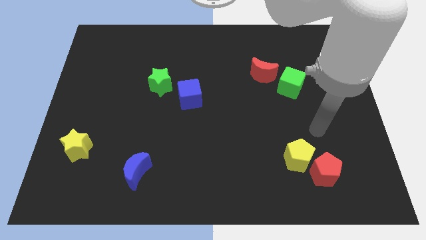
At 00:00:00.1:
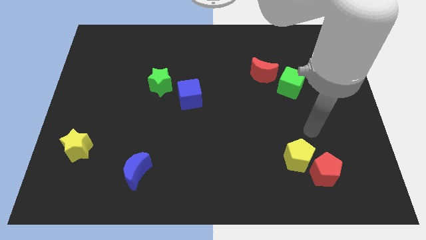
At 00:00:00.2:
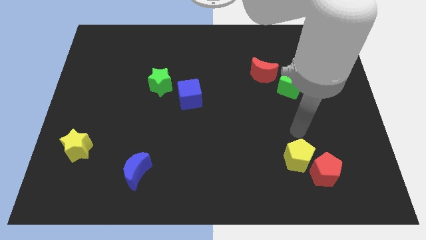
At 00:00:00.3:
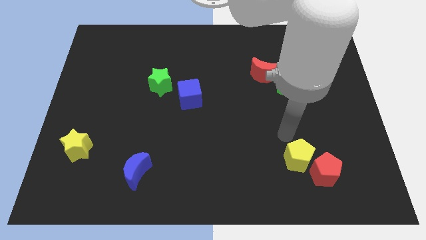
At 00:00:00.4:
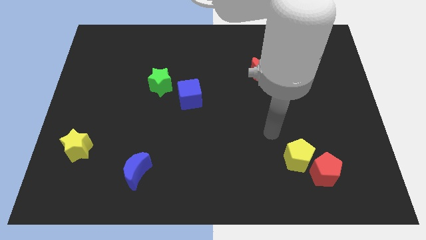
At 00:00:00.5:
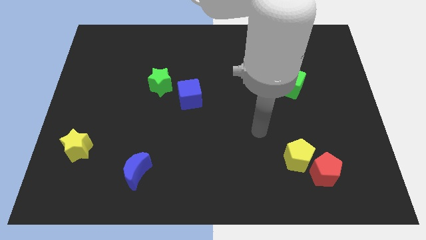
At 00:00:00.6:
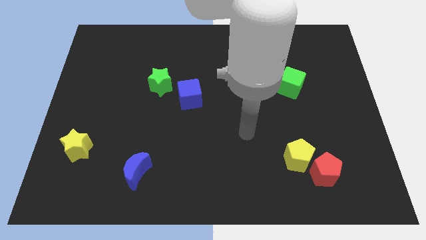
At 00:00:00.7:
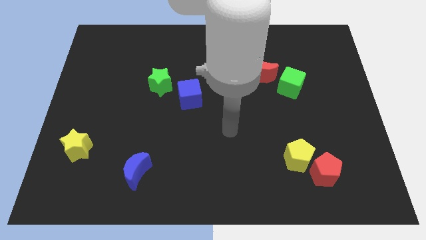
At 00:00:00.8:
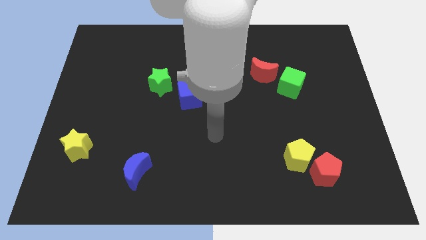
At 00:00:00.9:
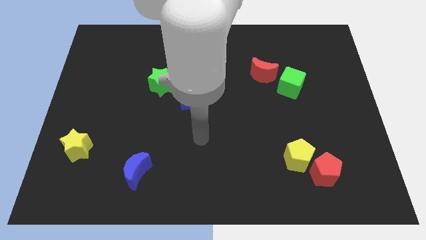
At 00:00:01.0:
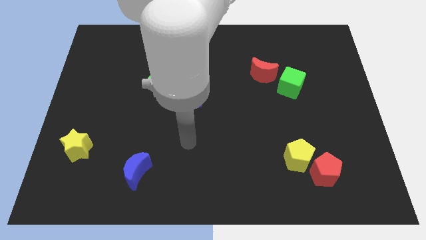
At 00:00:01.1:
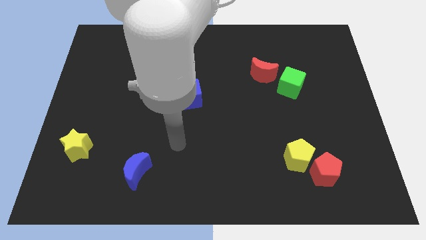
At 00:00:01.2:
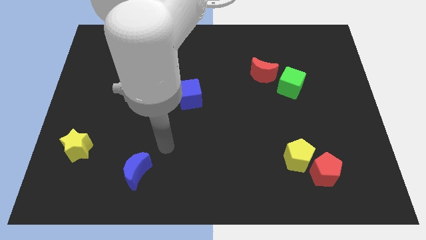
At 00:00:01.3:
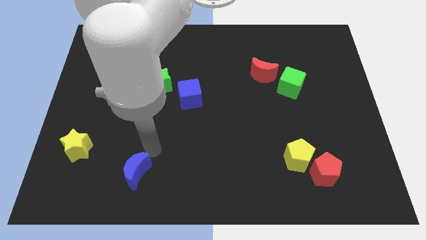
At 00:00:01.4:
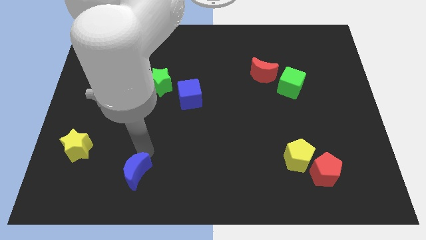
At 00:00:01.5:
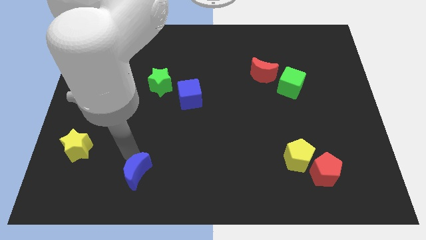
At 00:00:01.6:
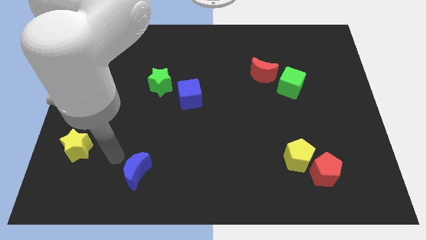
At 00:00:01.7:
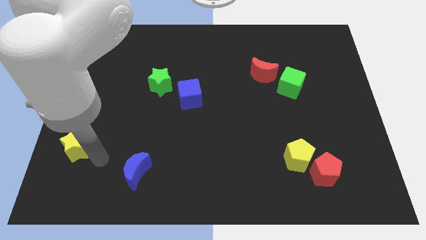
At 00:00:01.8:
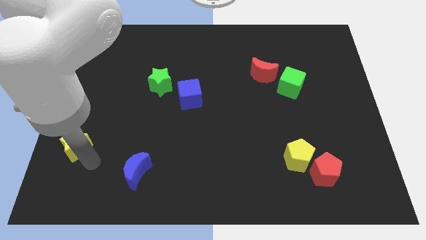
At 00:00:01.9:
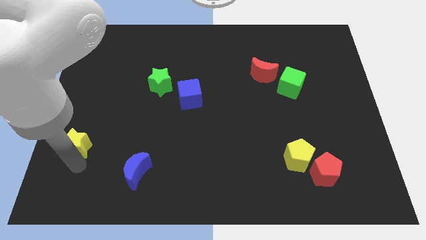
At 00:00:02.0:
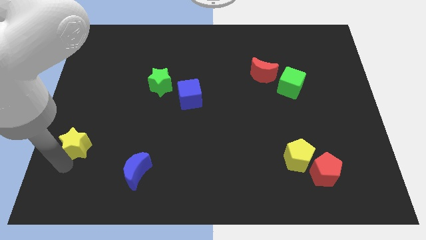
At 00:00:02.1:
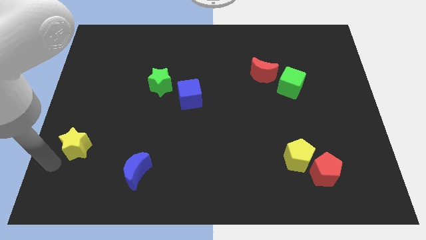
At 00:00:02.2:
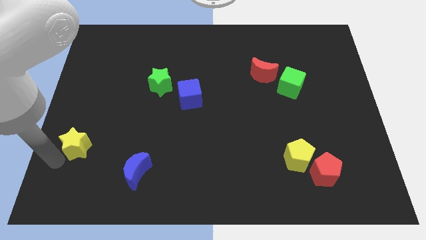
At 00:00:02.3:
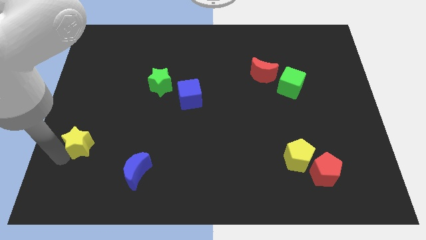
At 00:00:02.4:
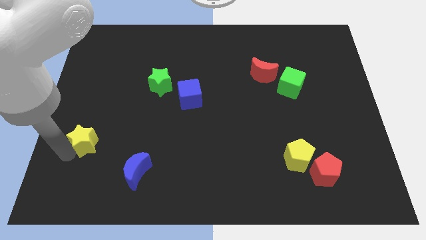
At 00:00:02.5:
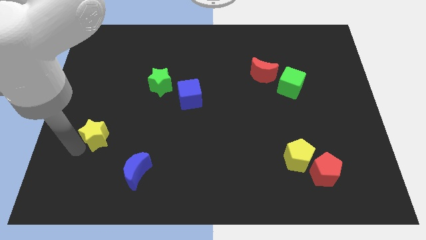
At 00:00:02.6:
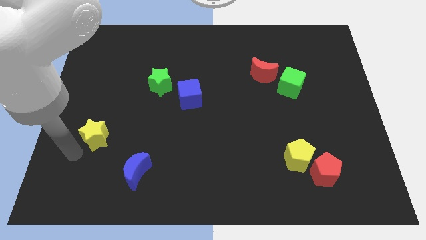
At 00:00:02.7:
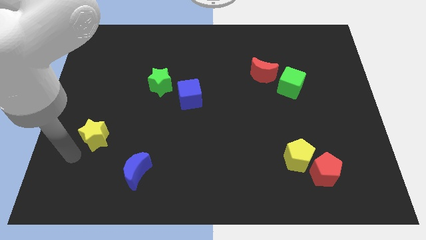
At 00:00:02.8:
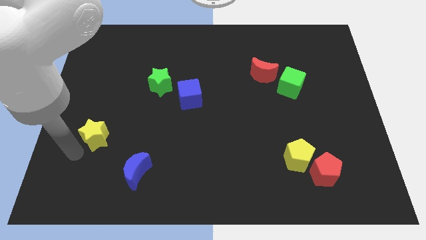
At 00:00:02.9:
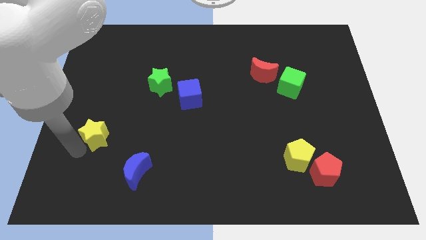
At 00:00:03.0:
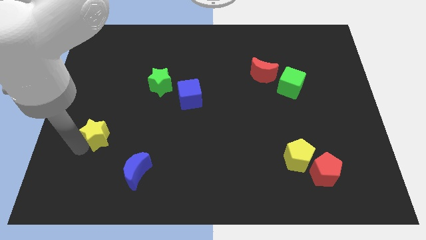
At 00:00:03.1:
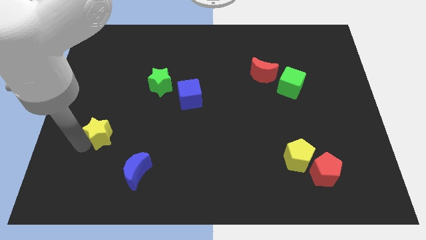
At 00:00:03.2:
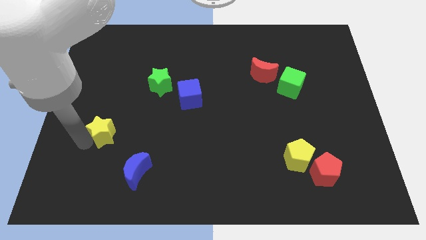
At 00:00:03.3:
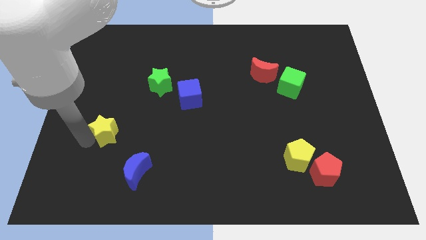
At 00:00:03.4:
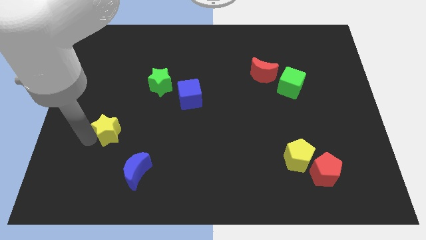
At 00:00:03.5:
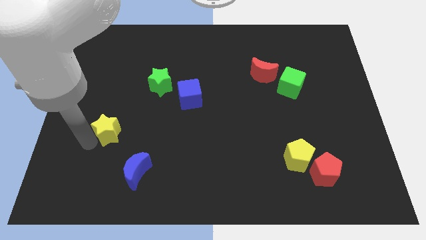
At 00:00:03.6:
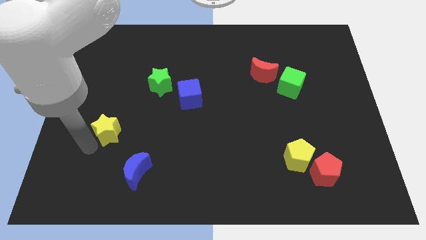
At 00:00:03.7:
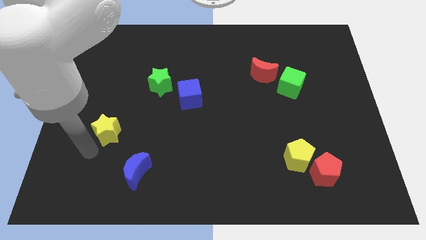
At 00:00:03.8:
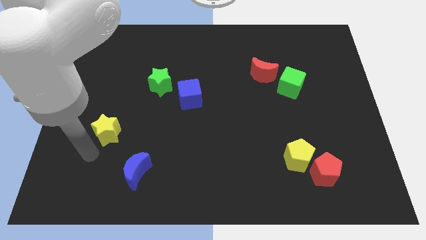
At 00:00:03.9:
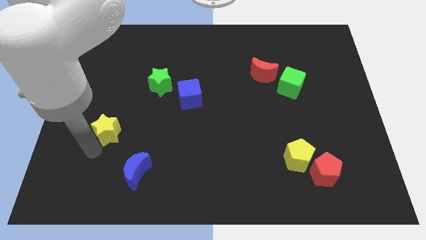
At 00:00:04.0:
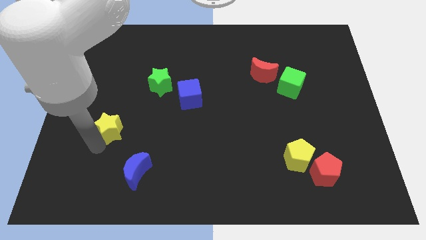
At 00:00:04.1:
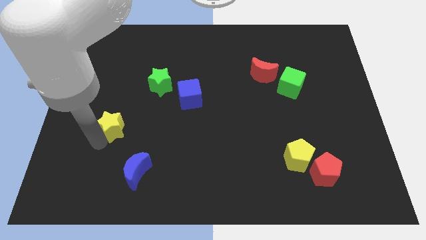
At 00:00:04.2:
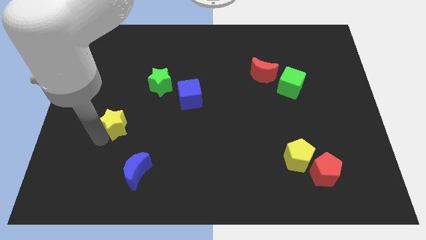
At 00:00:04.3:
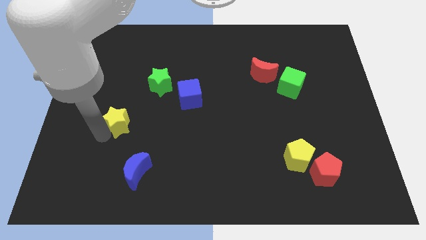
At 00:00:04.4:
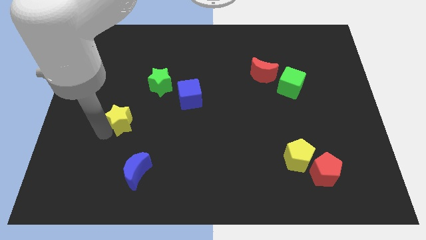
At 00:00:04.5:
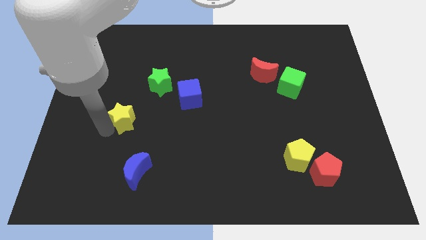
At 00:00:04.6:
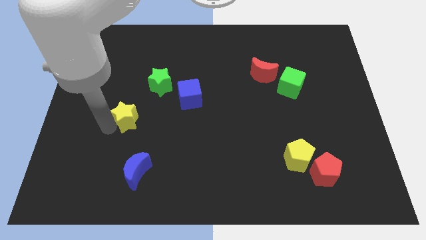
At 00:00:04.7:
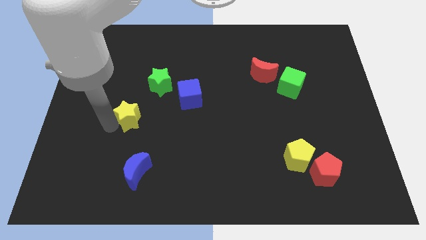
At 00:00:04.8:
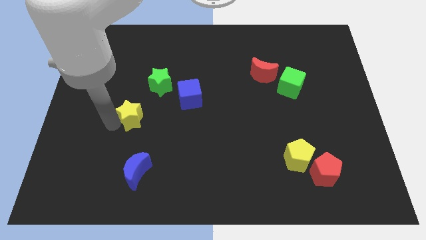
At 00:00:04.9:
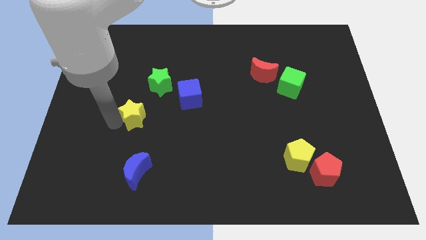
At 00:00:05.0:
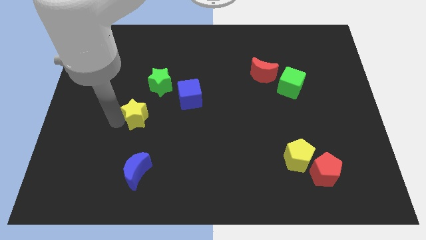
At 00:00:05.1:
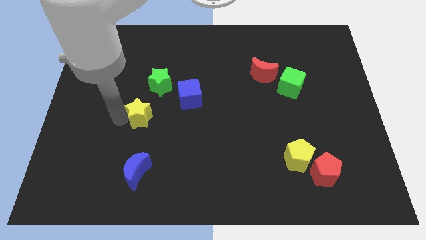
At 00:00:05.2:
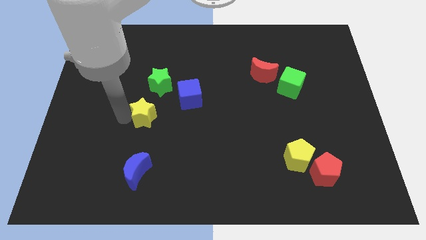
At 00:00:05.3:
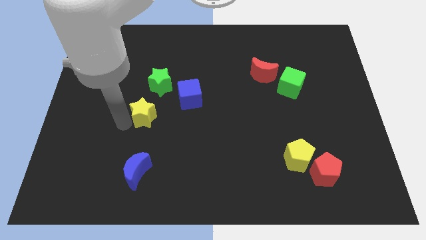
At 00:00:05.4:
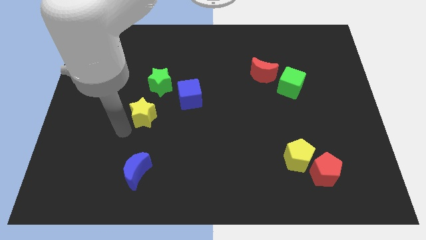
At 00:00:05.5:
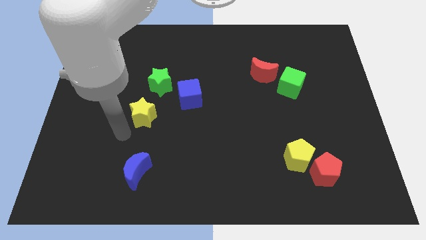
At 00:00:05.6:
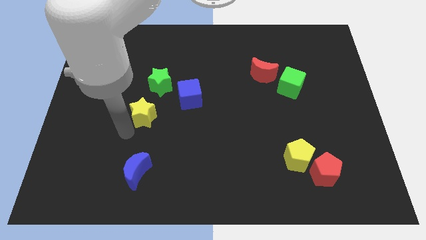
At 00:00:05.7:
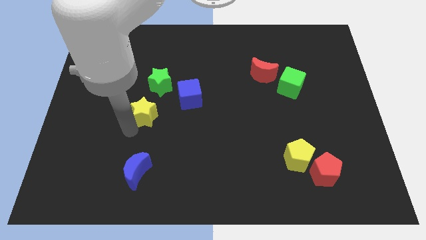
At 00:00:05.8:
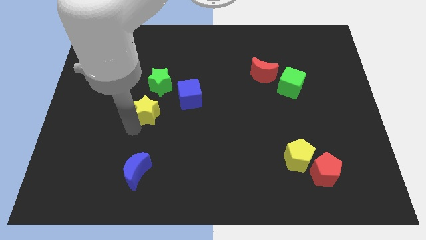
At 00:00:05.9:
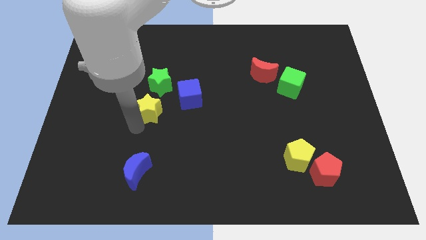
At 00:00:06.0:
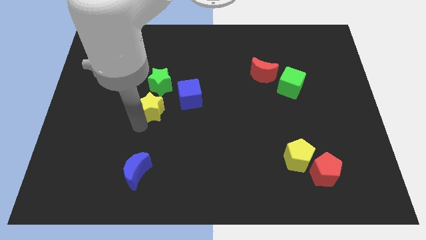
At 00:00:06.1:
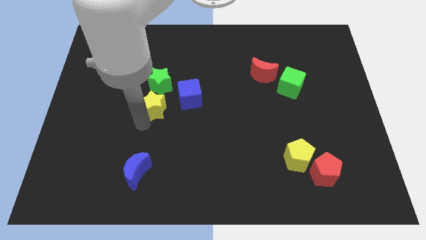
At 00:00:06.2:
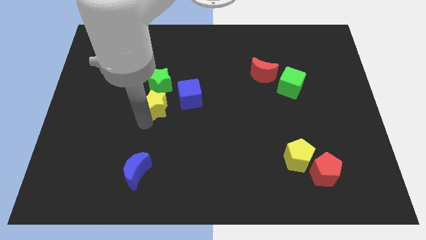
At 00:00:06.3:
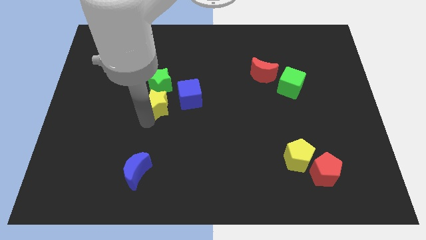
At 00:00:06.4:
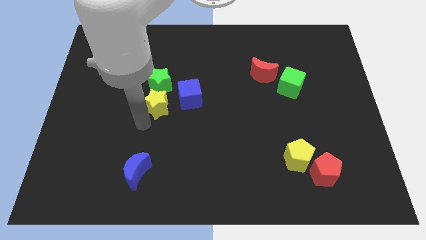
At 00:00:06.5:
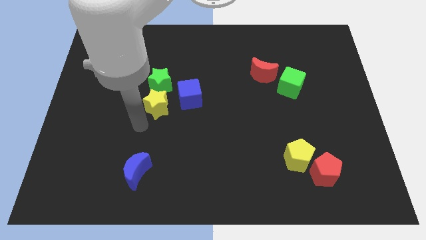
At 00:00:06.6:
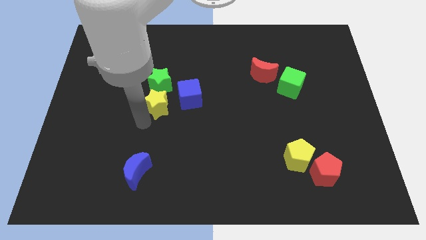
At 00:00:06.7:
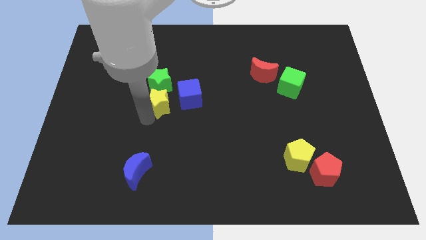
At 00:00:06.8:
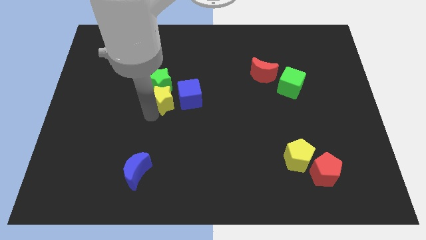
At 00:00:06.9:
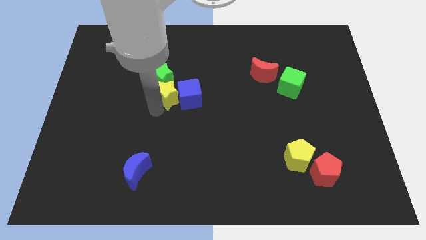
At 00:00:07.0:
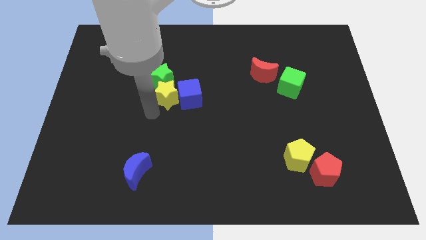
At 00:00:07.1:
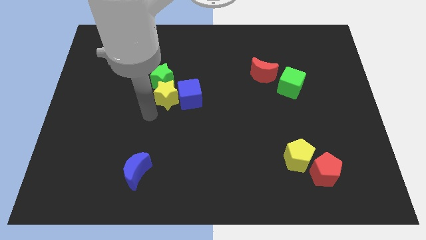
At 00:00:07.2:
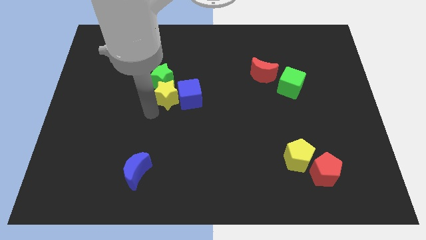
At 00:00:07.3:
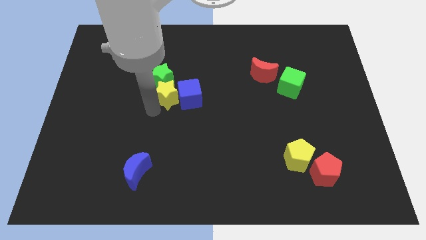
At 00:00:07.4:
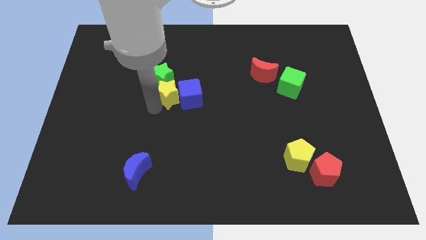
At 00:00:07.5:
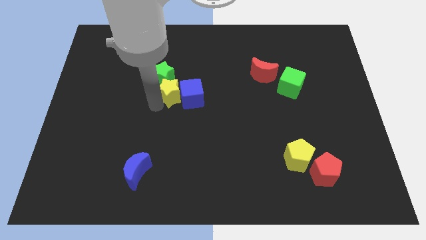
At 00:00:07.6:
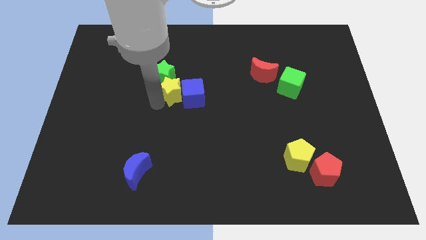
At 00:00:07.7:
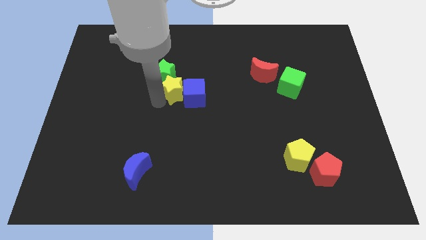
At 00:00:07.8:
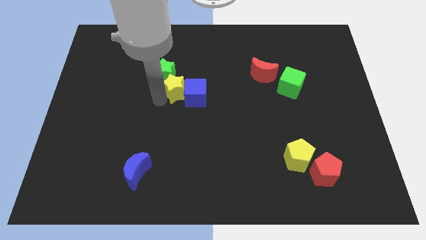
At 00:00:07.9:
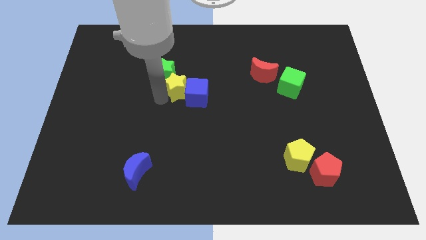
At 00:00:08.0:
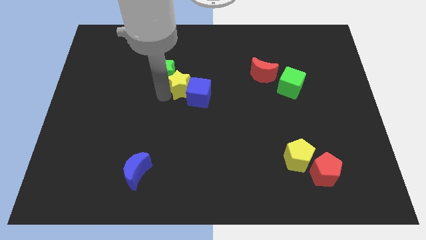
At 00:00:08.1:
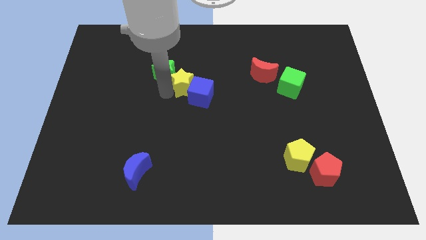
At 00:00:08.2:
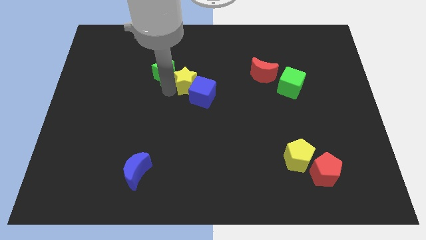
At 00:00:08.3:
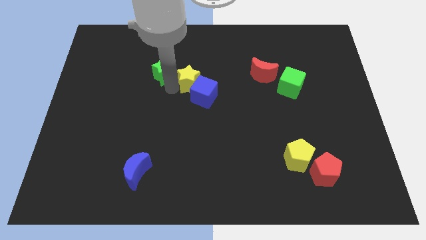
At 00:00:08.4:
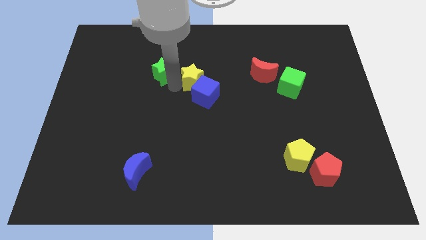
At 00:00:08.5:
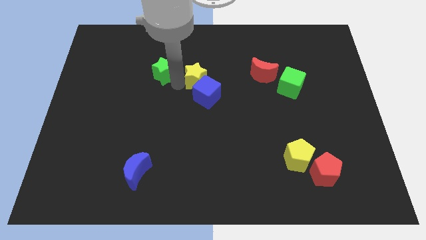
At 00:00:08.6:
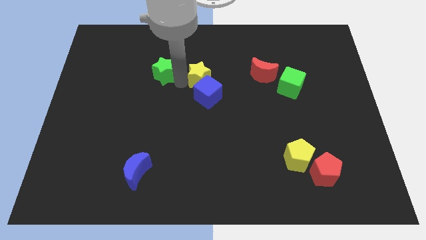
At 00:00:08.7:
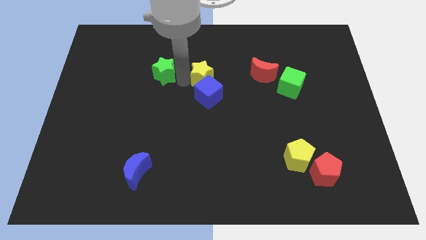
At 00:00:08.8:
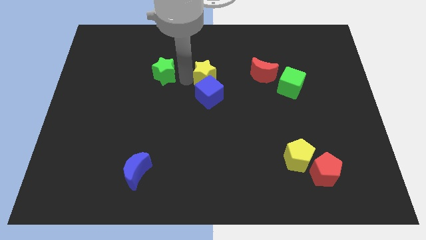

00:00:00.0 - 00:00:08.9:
push the yellow star to the top right side of the blue cube
